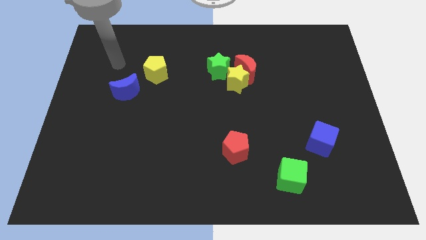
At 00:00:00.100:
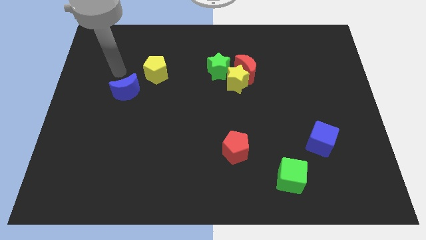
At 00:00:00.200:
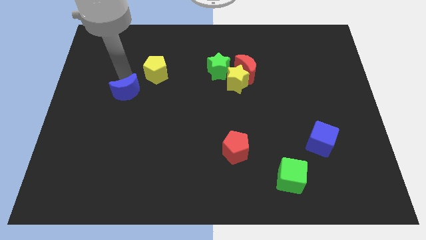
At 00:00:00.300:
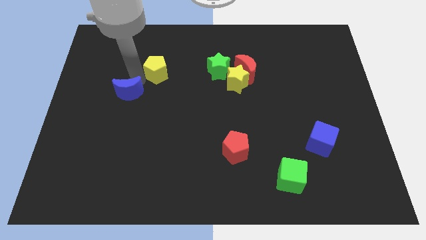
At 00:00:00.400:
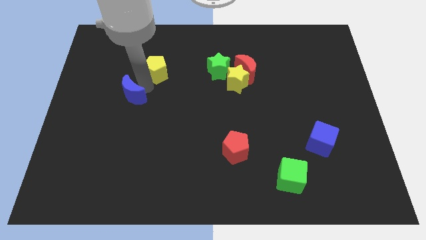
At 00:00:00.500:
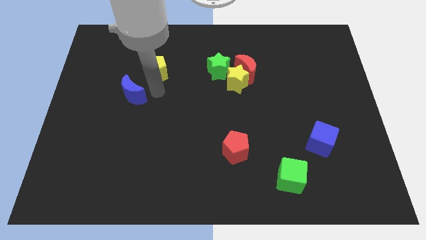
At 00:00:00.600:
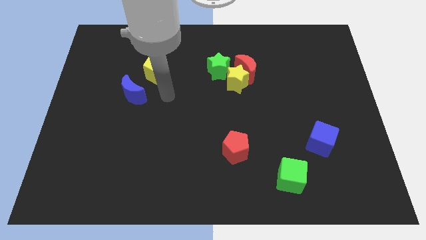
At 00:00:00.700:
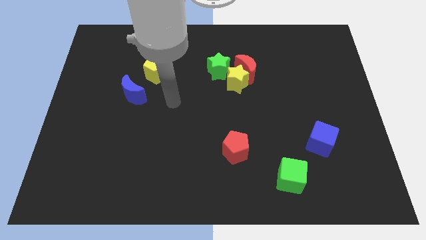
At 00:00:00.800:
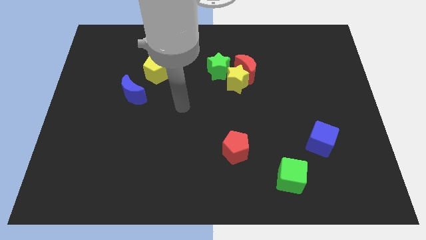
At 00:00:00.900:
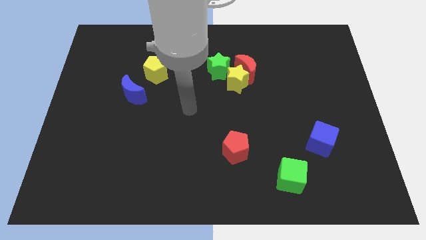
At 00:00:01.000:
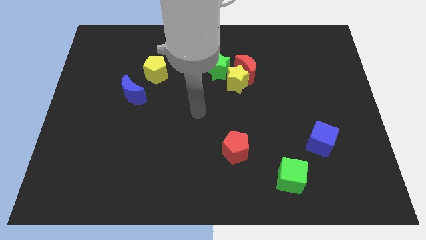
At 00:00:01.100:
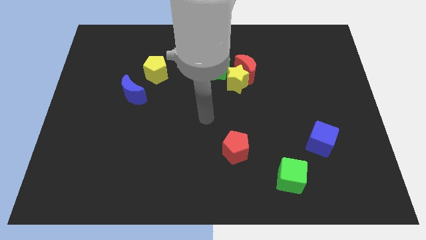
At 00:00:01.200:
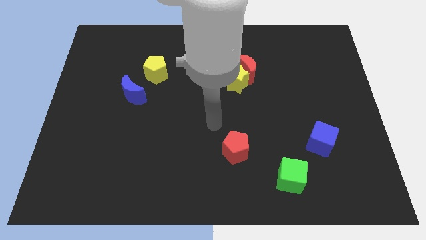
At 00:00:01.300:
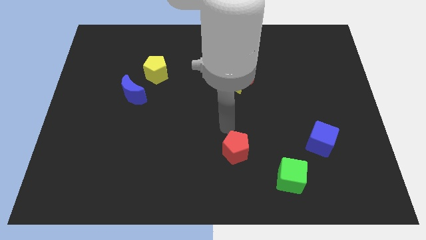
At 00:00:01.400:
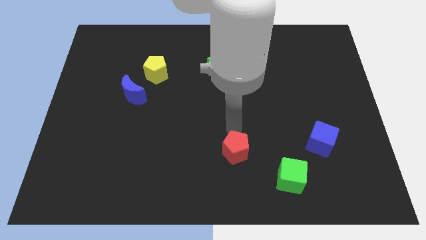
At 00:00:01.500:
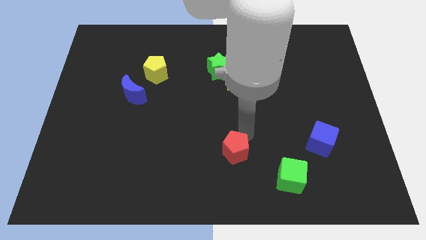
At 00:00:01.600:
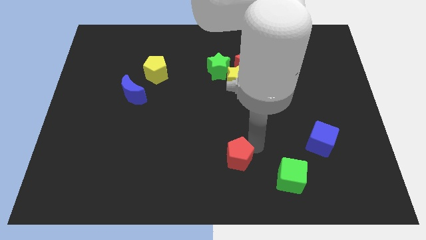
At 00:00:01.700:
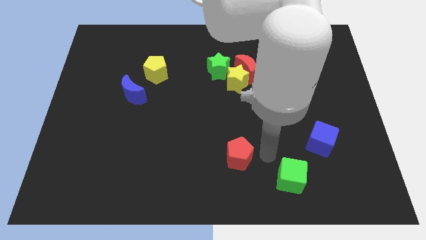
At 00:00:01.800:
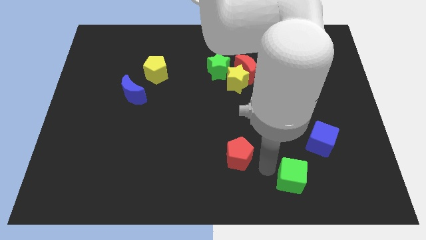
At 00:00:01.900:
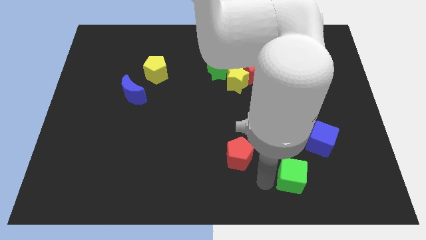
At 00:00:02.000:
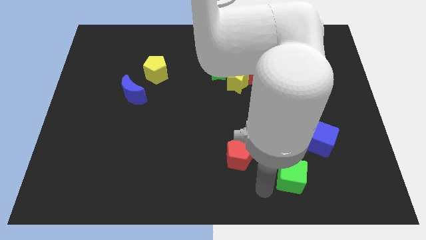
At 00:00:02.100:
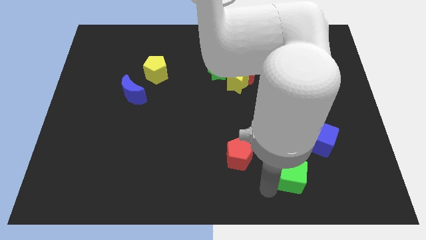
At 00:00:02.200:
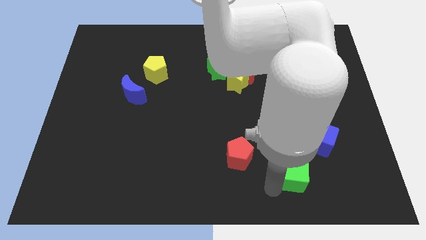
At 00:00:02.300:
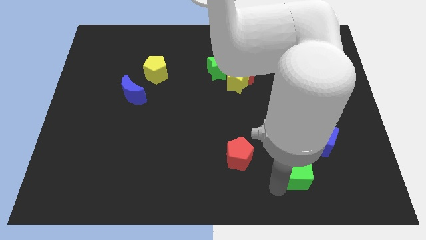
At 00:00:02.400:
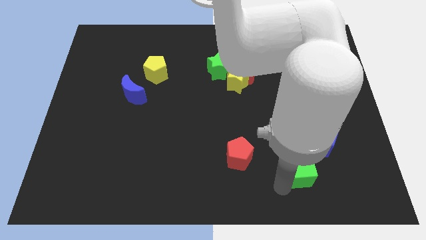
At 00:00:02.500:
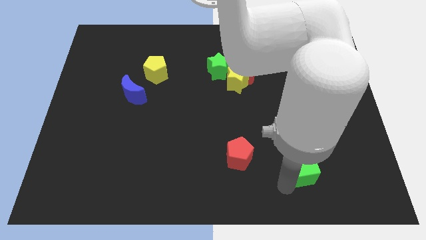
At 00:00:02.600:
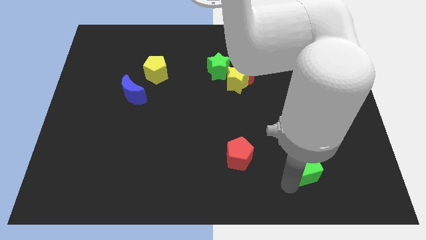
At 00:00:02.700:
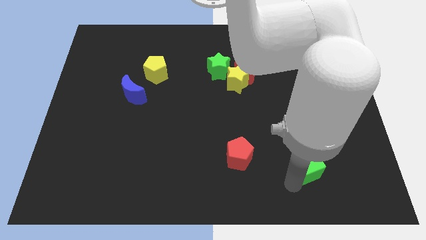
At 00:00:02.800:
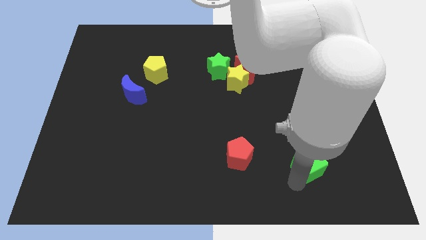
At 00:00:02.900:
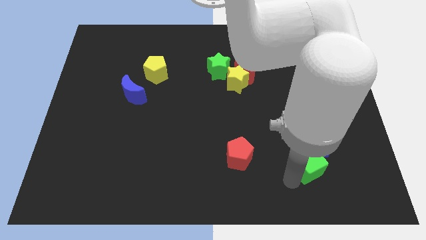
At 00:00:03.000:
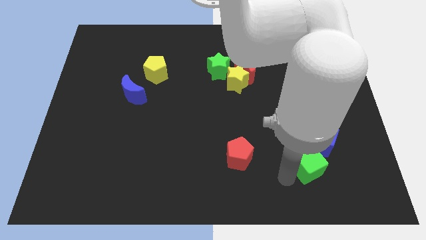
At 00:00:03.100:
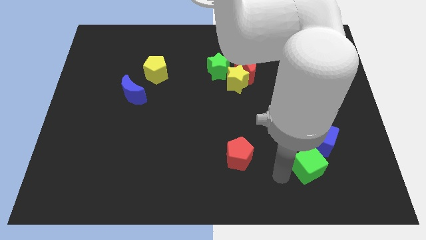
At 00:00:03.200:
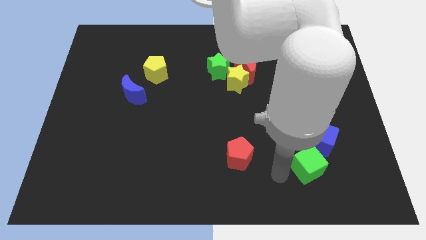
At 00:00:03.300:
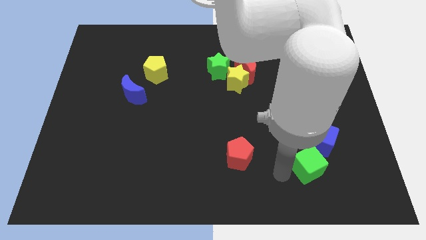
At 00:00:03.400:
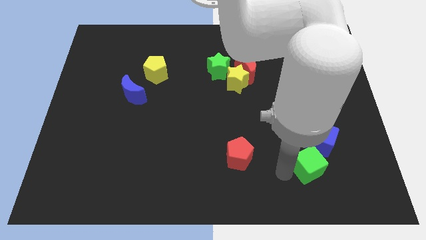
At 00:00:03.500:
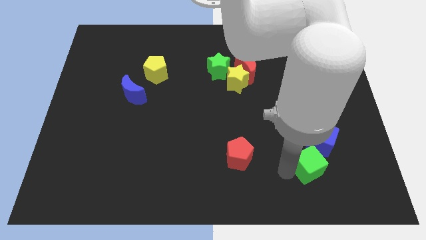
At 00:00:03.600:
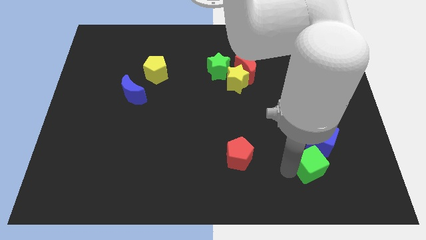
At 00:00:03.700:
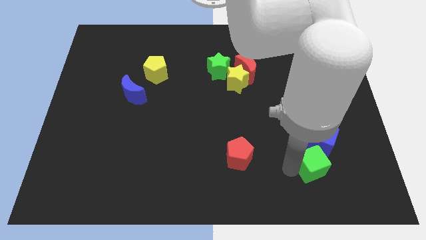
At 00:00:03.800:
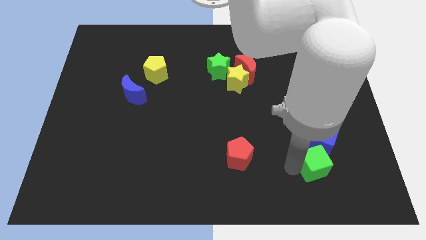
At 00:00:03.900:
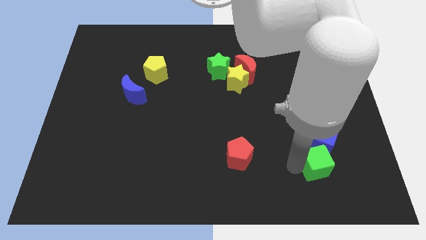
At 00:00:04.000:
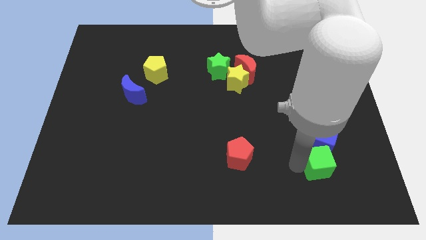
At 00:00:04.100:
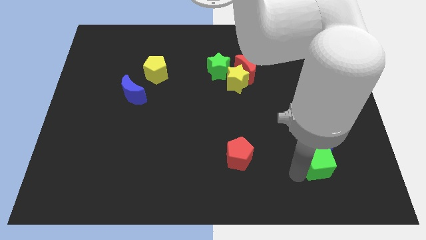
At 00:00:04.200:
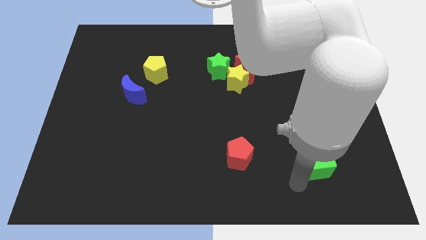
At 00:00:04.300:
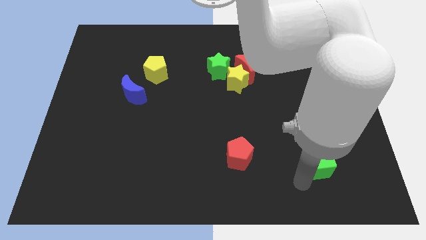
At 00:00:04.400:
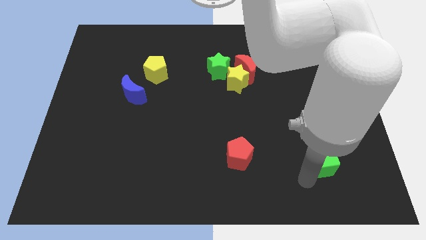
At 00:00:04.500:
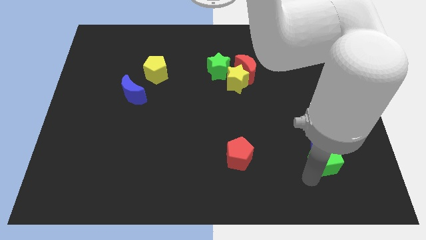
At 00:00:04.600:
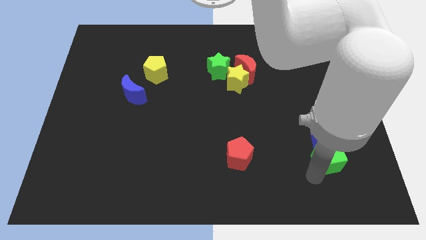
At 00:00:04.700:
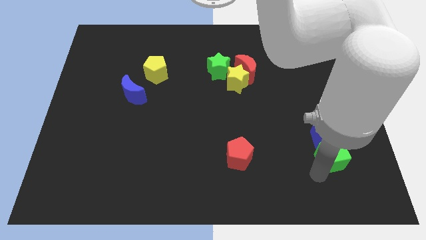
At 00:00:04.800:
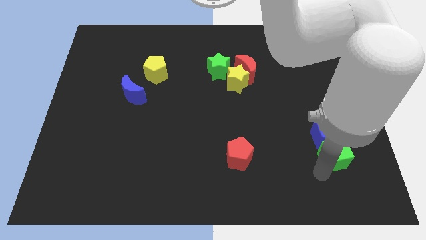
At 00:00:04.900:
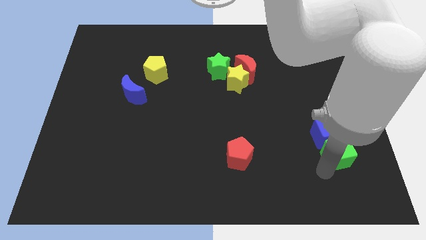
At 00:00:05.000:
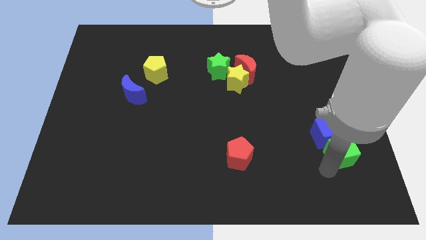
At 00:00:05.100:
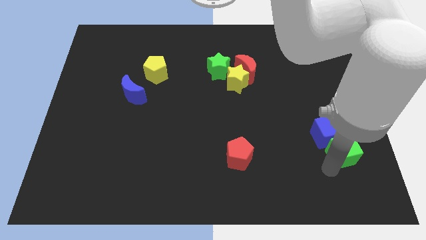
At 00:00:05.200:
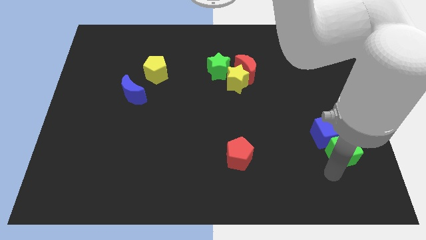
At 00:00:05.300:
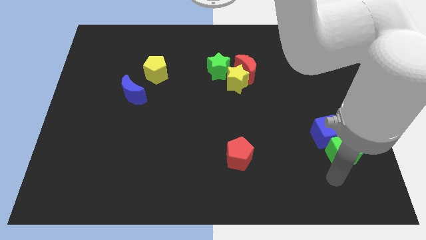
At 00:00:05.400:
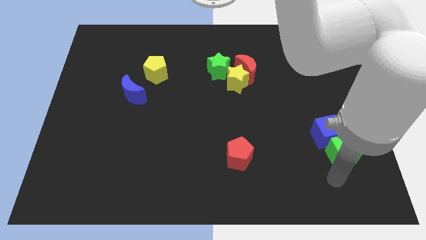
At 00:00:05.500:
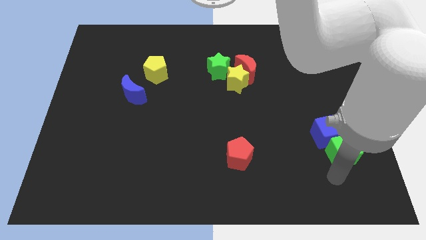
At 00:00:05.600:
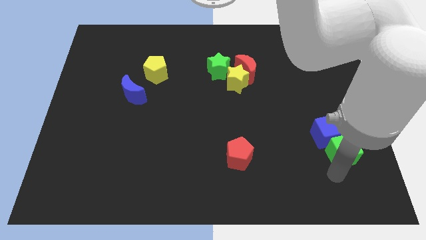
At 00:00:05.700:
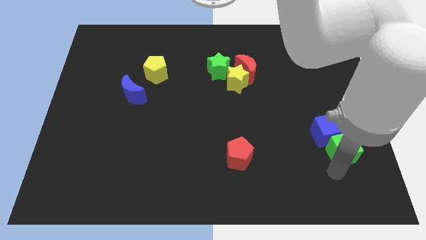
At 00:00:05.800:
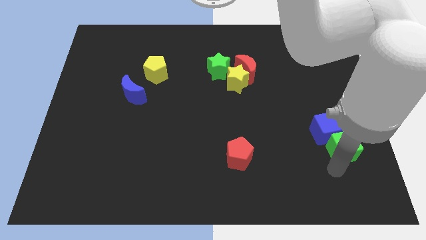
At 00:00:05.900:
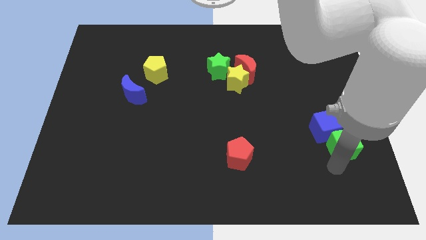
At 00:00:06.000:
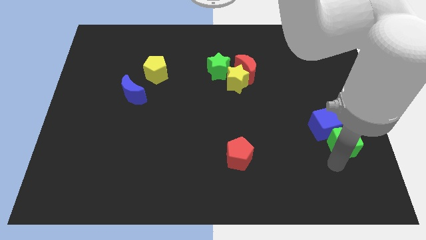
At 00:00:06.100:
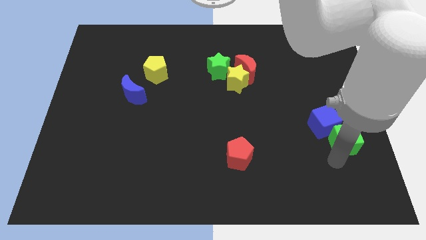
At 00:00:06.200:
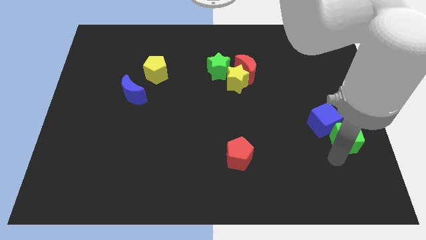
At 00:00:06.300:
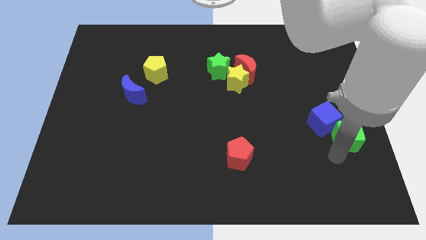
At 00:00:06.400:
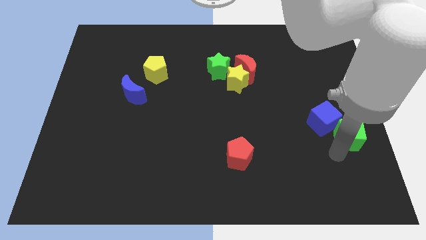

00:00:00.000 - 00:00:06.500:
push the green cube to the right side of the board
